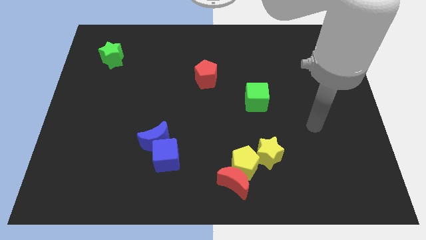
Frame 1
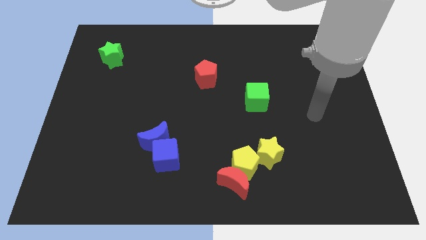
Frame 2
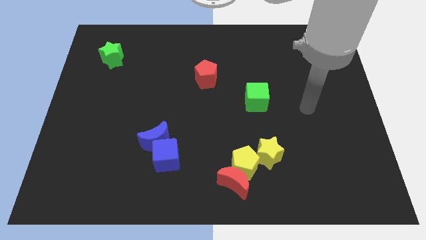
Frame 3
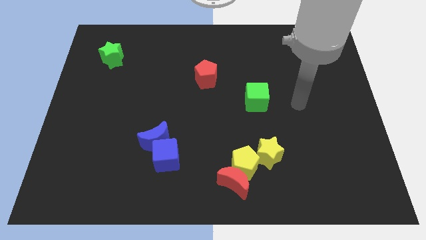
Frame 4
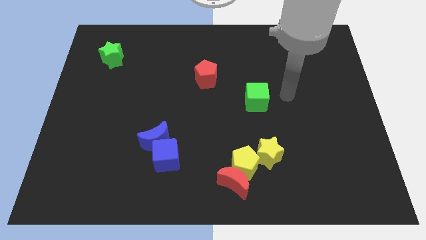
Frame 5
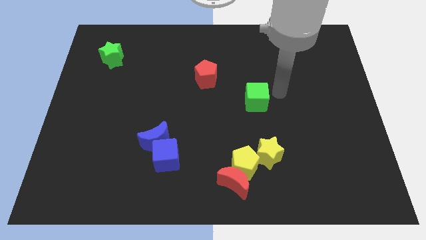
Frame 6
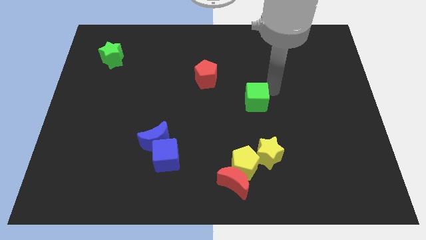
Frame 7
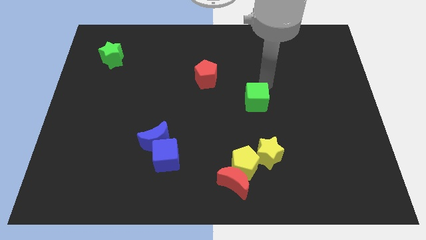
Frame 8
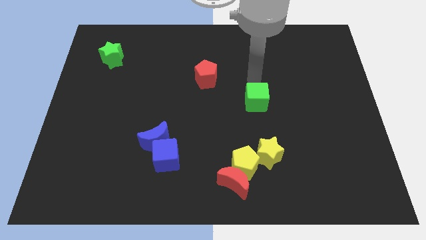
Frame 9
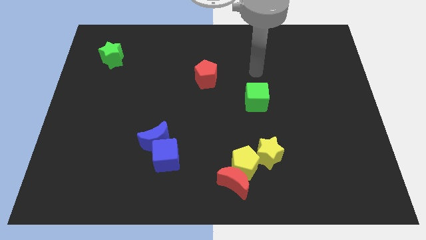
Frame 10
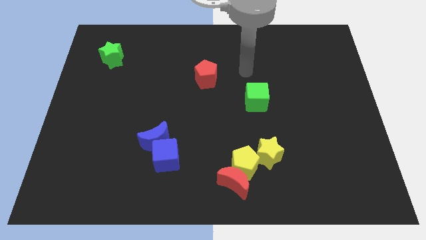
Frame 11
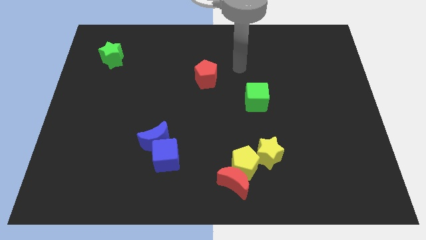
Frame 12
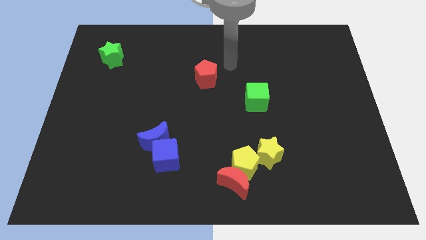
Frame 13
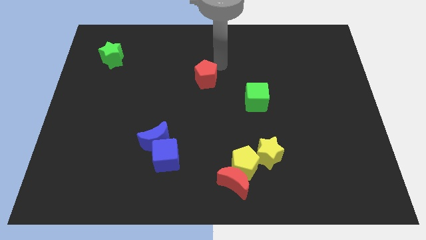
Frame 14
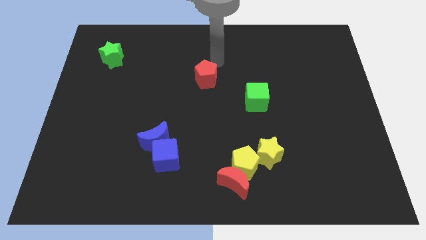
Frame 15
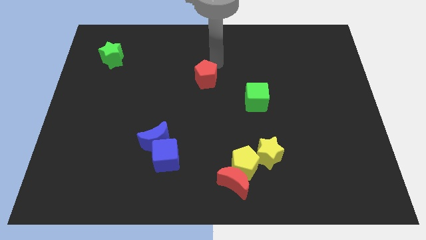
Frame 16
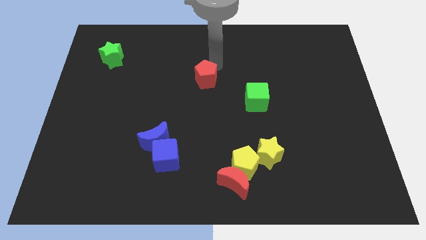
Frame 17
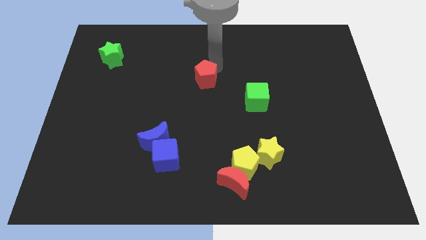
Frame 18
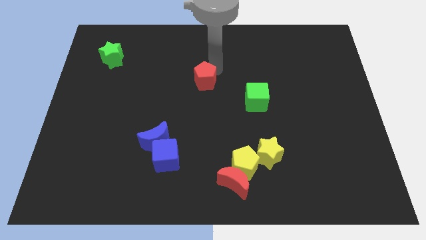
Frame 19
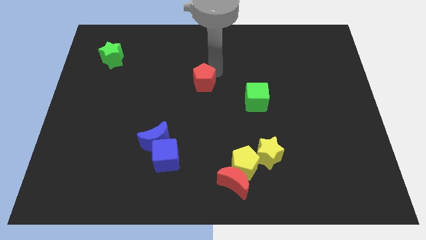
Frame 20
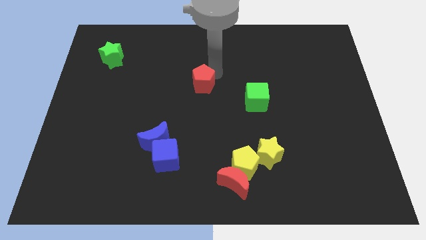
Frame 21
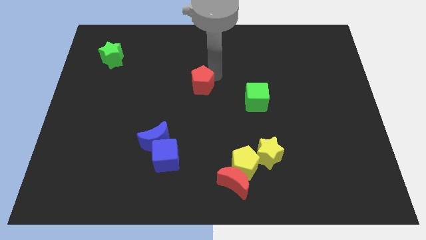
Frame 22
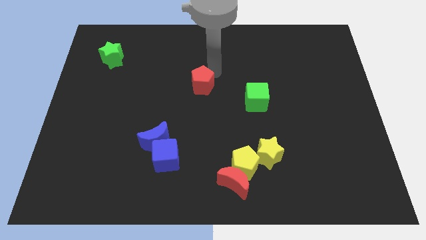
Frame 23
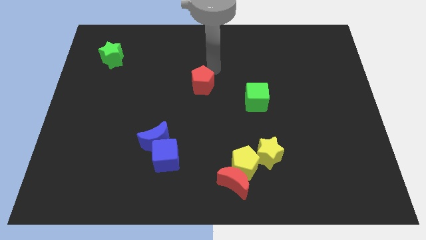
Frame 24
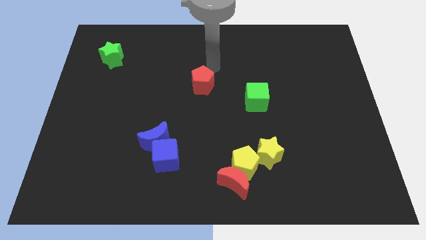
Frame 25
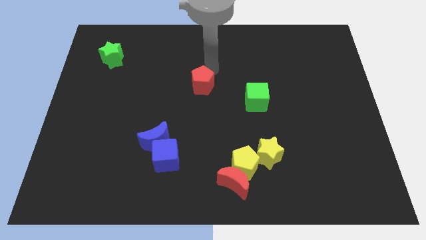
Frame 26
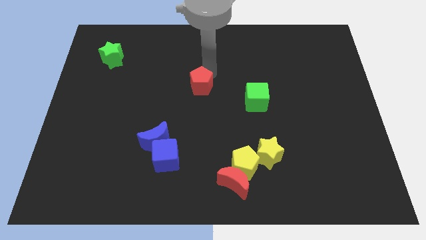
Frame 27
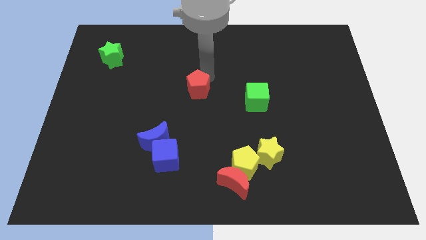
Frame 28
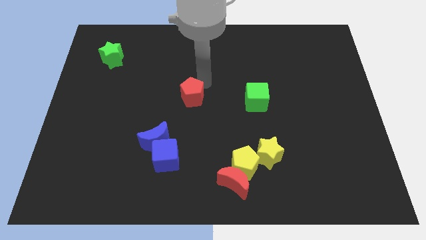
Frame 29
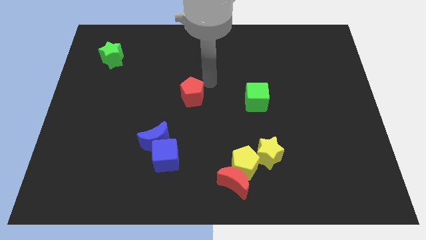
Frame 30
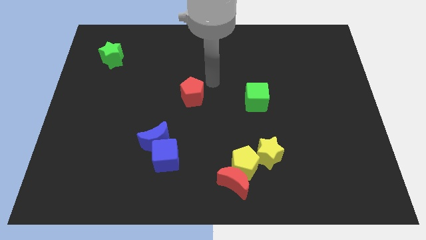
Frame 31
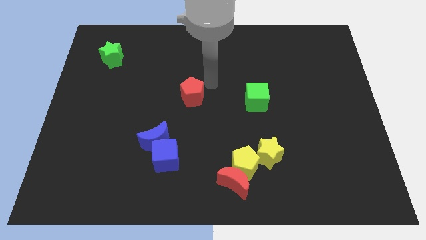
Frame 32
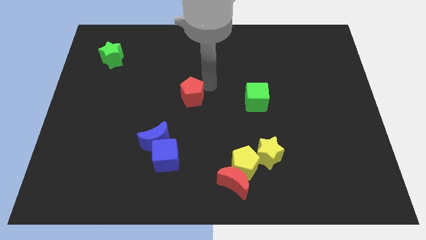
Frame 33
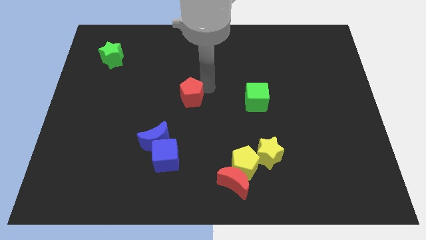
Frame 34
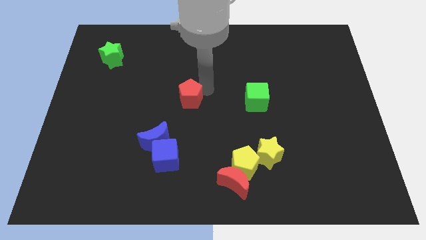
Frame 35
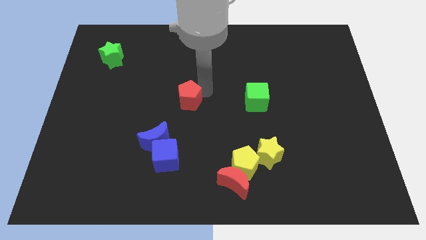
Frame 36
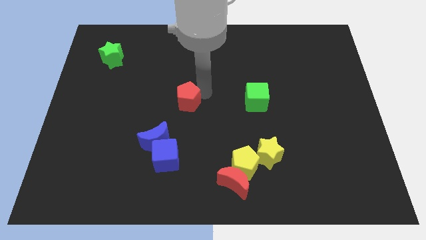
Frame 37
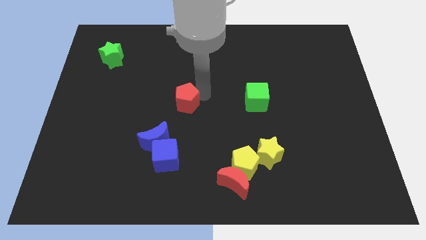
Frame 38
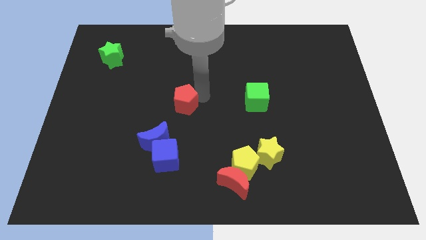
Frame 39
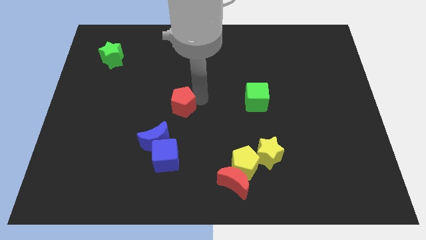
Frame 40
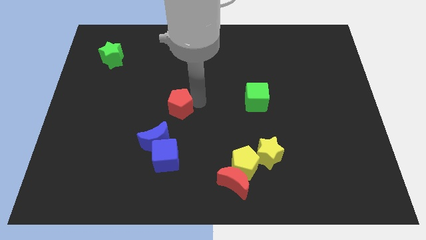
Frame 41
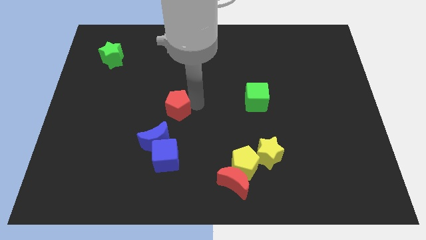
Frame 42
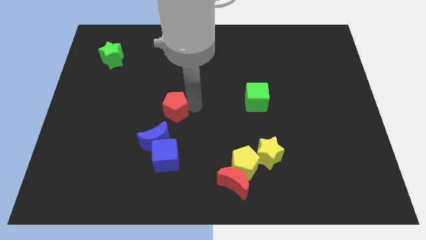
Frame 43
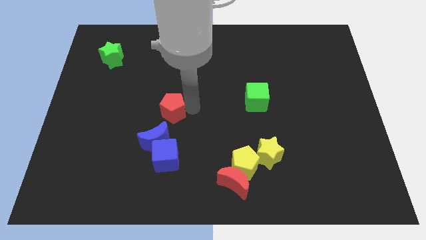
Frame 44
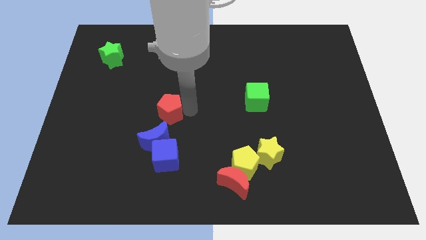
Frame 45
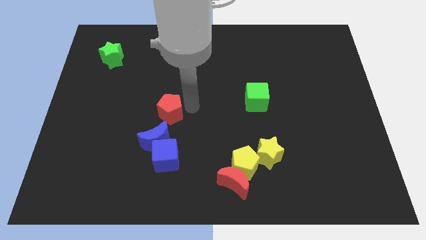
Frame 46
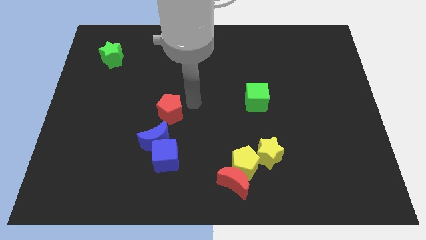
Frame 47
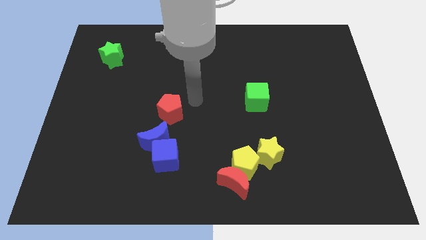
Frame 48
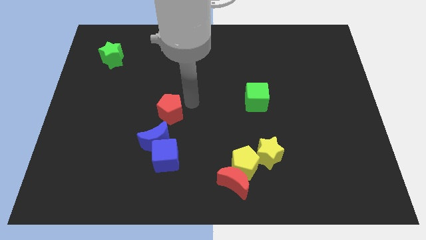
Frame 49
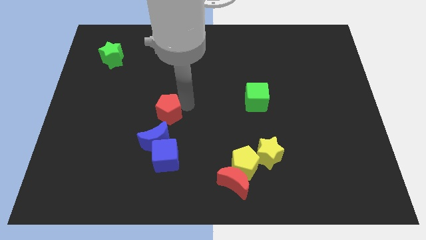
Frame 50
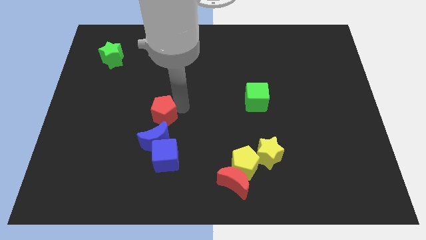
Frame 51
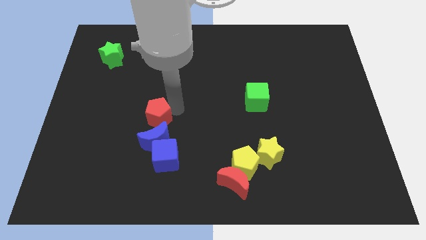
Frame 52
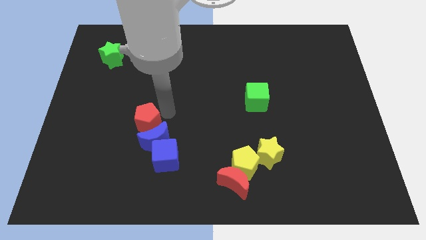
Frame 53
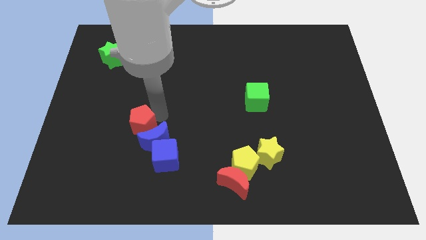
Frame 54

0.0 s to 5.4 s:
slide the red pentagon downwards and left

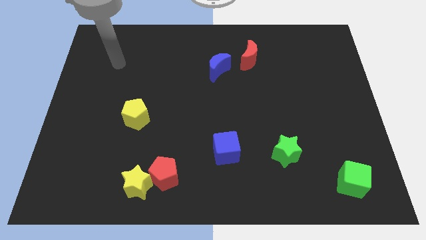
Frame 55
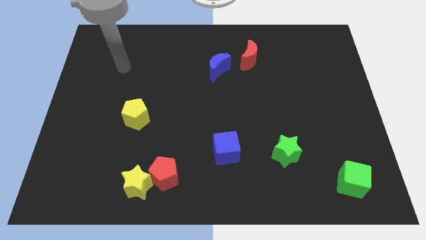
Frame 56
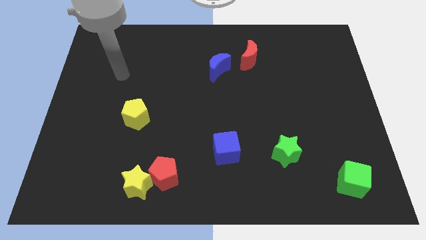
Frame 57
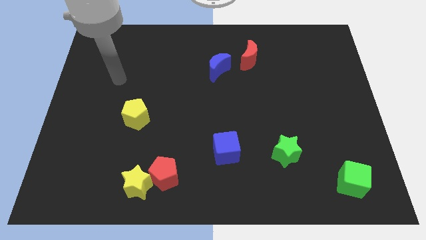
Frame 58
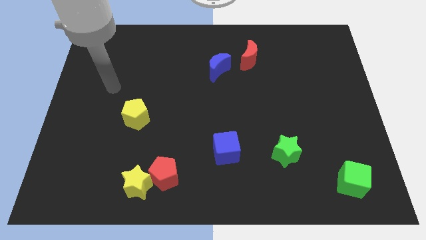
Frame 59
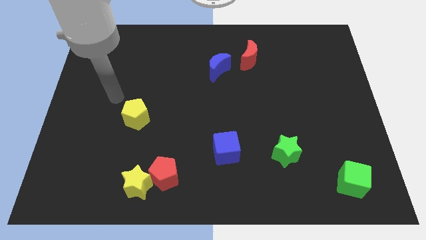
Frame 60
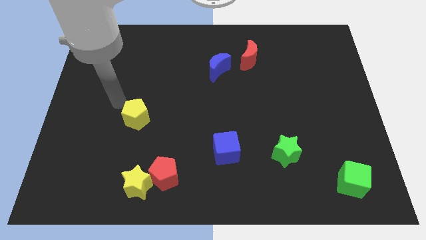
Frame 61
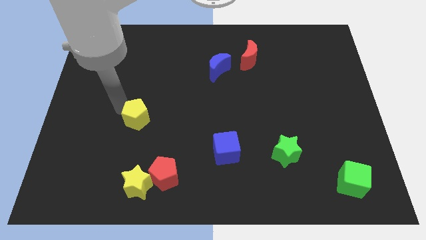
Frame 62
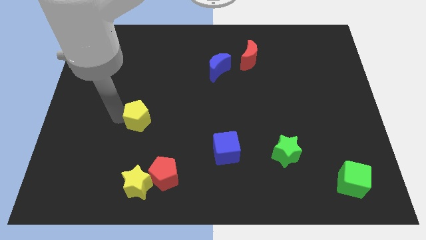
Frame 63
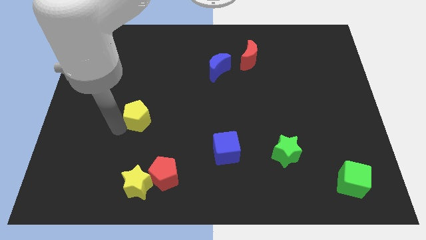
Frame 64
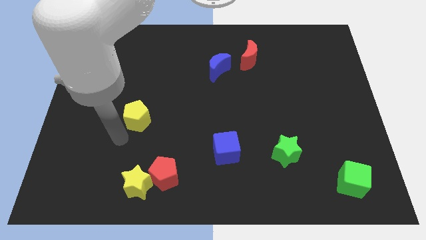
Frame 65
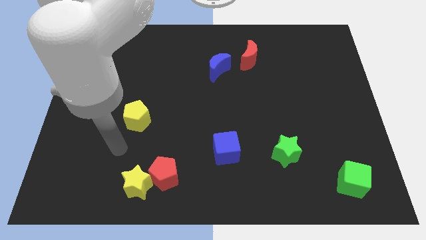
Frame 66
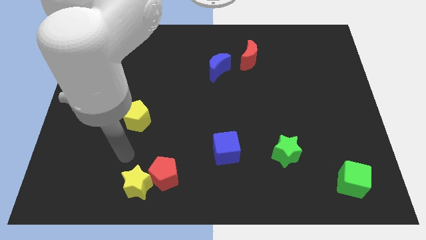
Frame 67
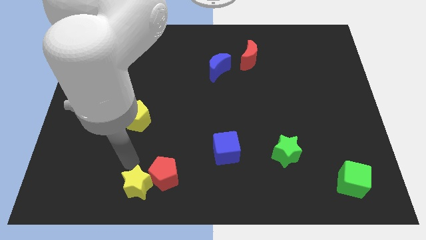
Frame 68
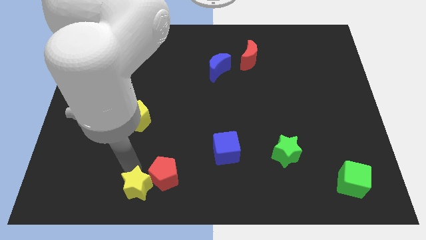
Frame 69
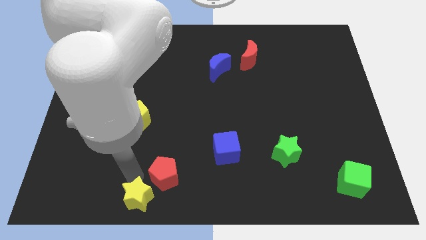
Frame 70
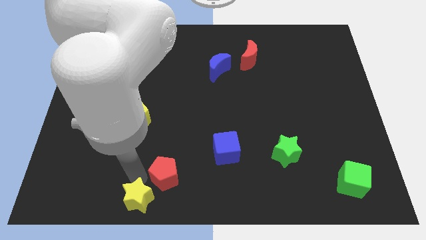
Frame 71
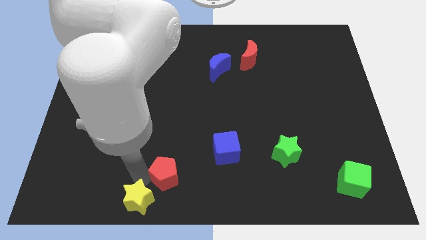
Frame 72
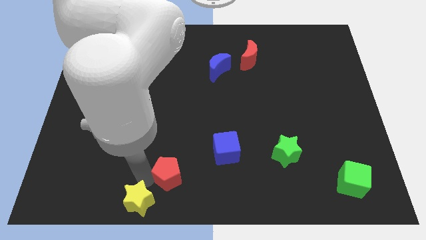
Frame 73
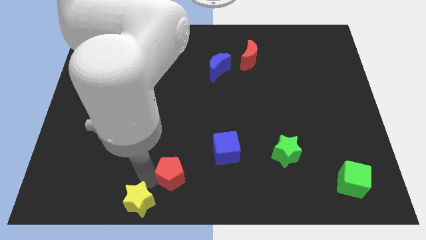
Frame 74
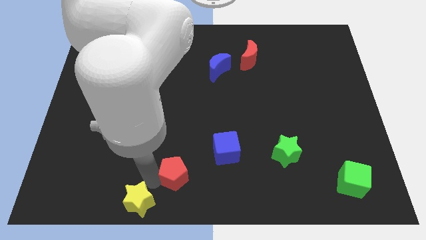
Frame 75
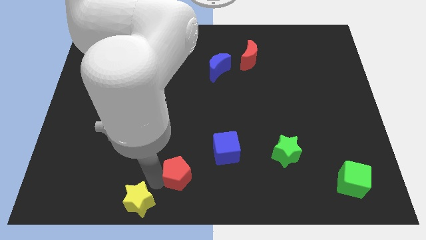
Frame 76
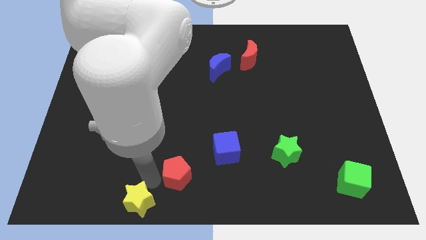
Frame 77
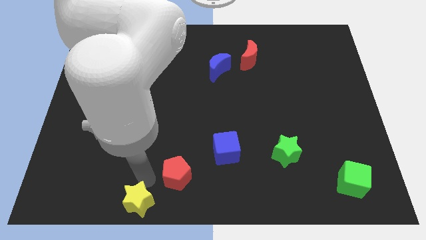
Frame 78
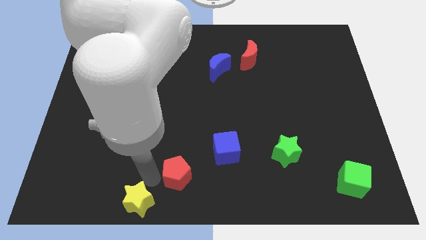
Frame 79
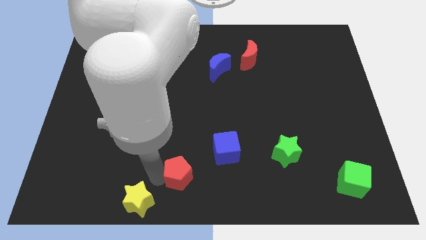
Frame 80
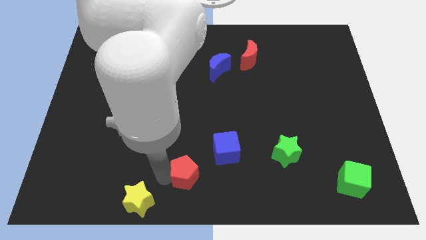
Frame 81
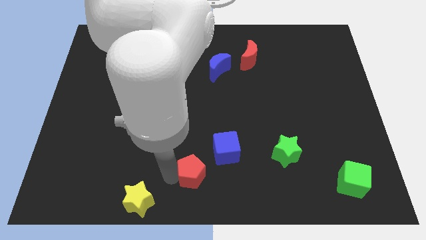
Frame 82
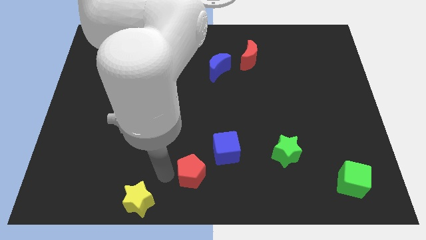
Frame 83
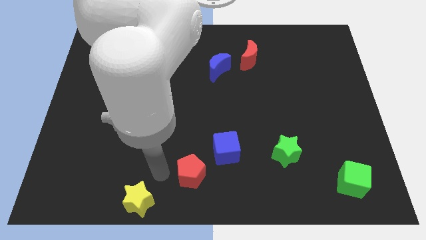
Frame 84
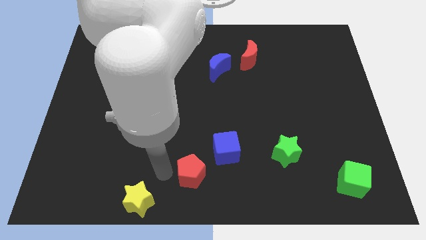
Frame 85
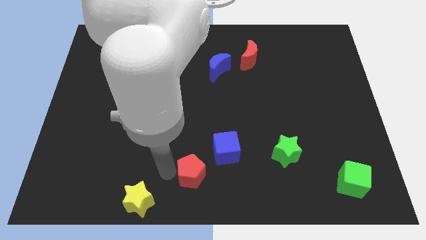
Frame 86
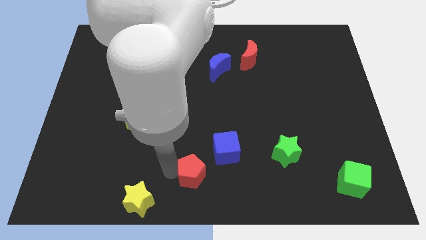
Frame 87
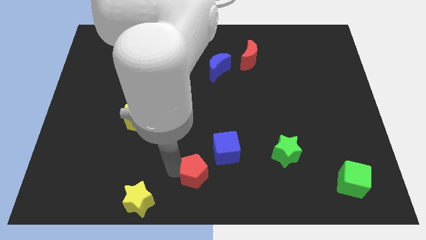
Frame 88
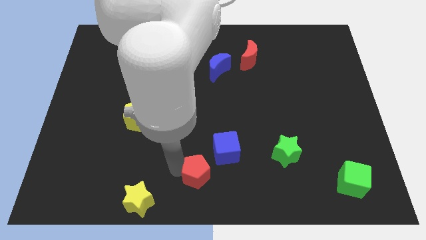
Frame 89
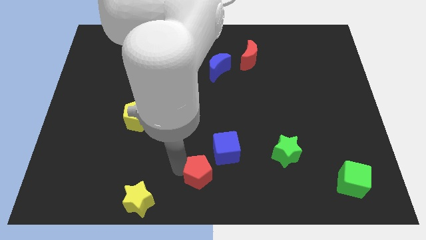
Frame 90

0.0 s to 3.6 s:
move the red pentagon to the right slightly
